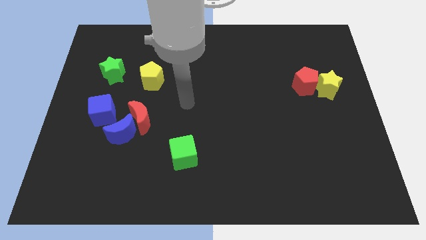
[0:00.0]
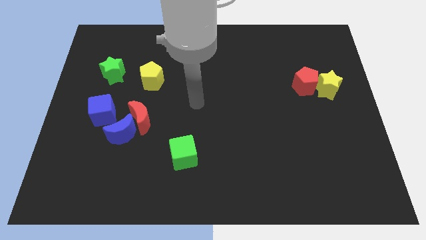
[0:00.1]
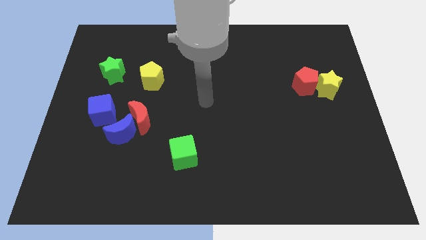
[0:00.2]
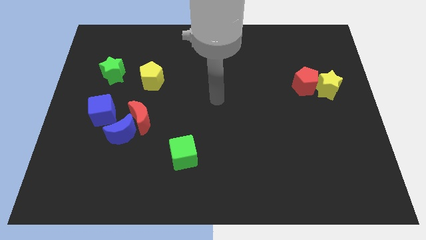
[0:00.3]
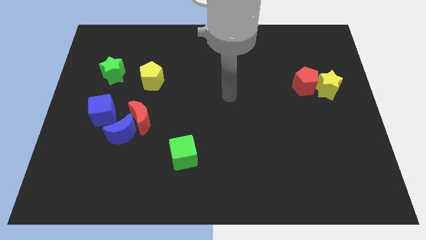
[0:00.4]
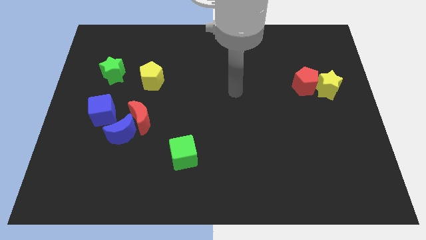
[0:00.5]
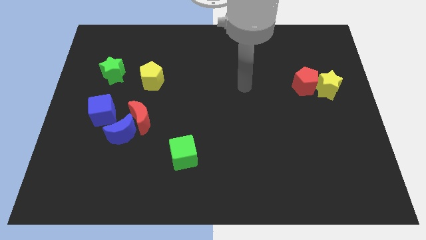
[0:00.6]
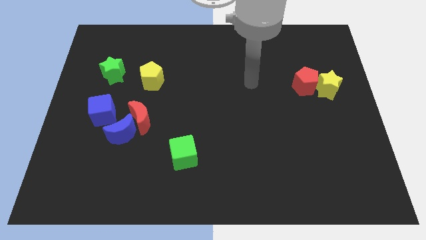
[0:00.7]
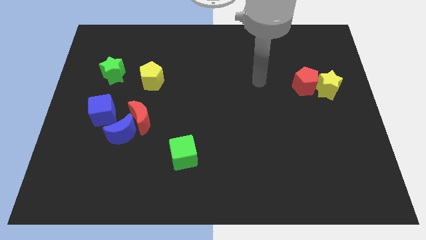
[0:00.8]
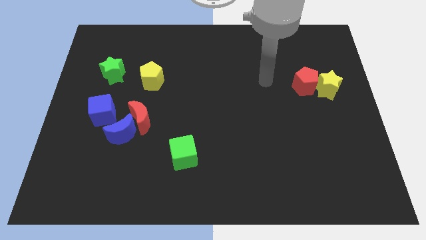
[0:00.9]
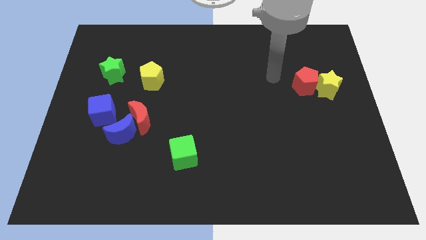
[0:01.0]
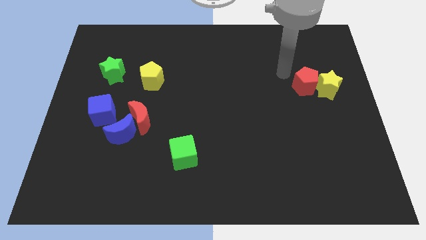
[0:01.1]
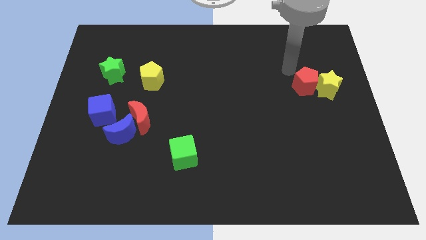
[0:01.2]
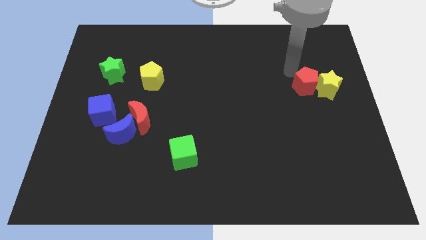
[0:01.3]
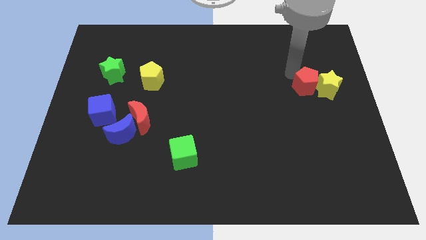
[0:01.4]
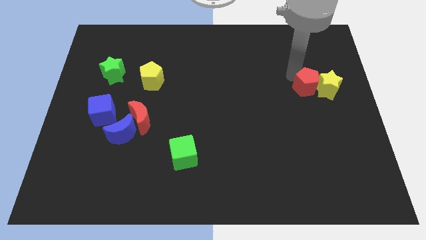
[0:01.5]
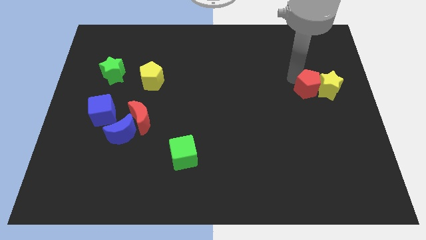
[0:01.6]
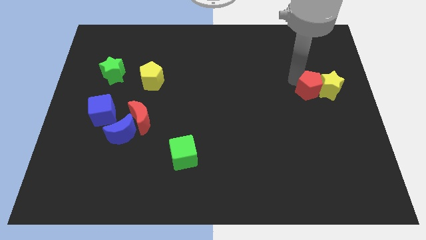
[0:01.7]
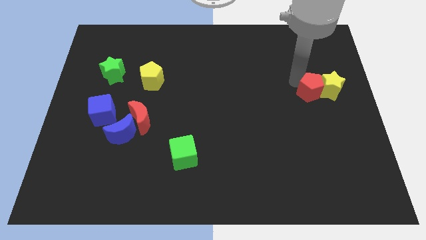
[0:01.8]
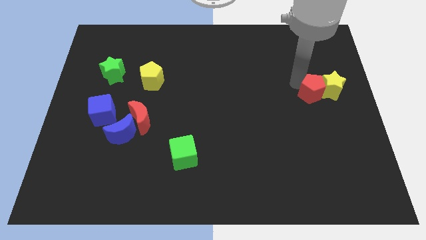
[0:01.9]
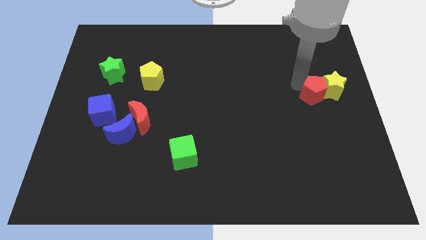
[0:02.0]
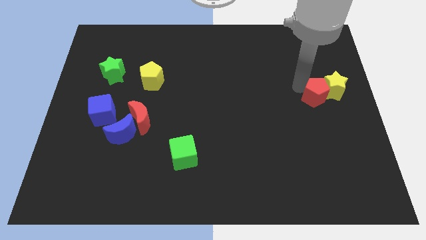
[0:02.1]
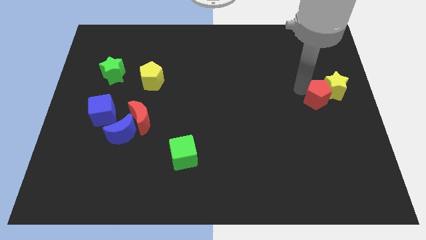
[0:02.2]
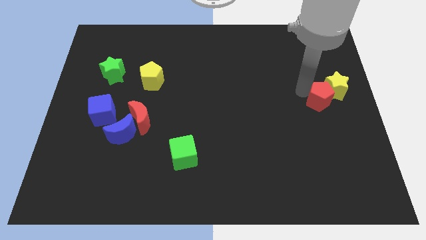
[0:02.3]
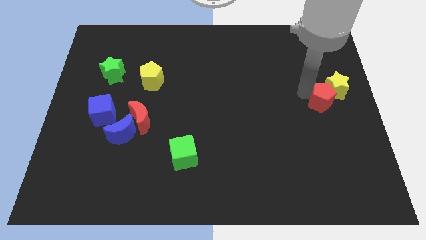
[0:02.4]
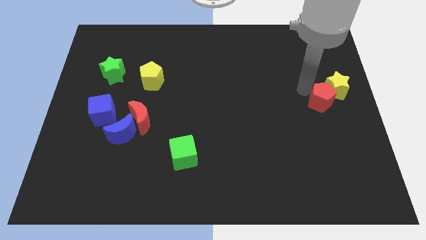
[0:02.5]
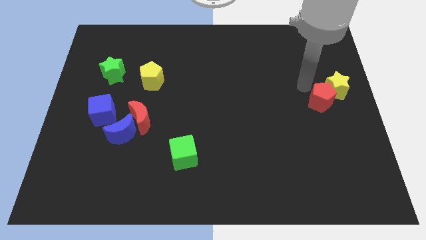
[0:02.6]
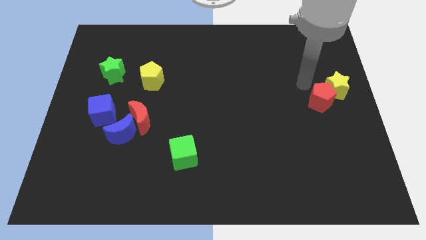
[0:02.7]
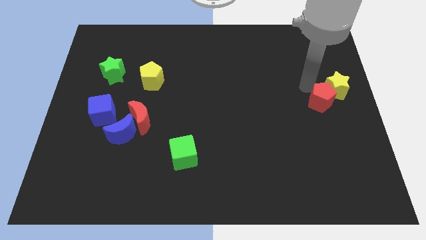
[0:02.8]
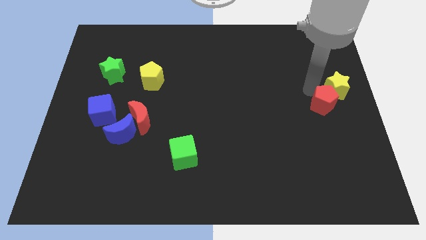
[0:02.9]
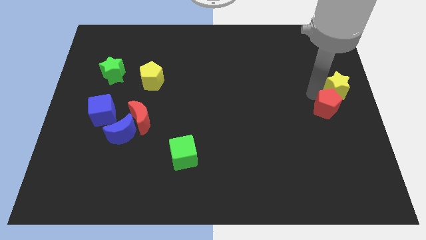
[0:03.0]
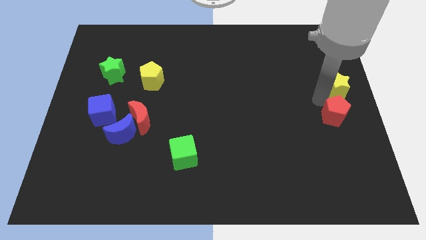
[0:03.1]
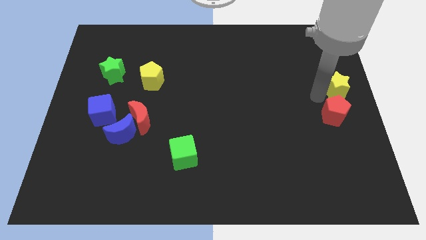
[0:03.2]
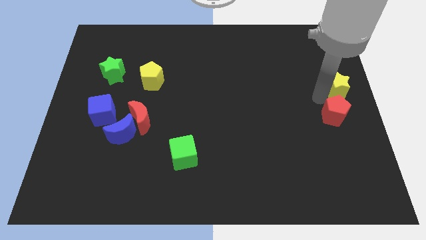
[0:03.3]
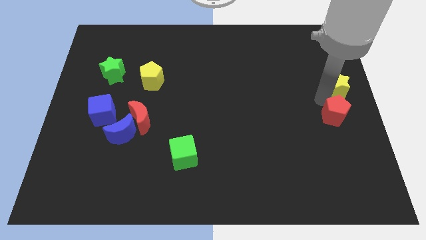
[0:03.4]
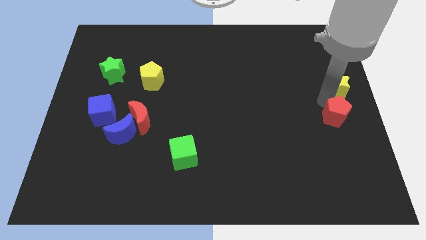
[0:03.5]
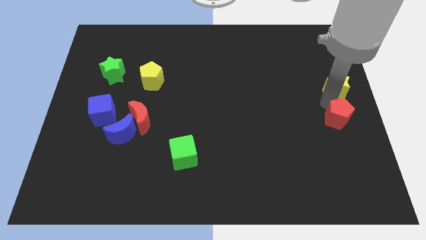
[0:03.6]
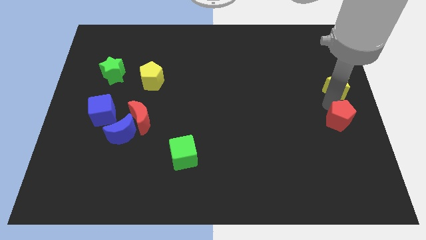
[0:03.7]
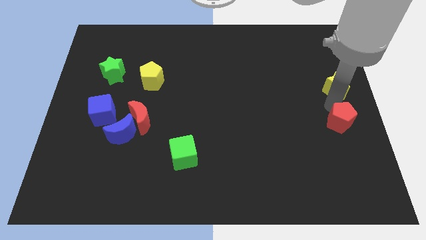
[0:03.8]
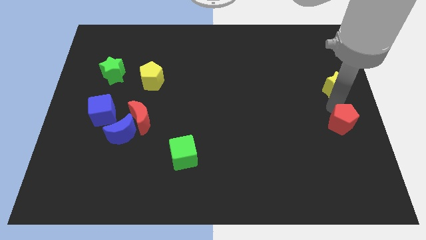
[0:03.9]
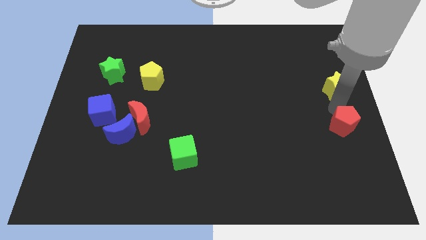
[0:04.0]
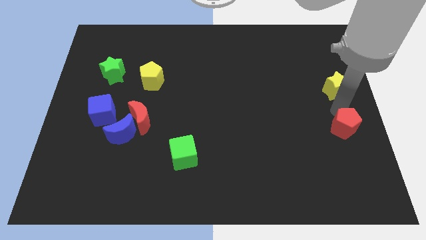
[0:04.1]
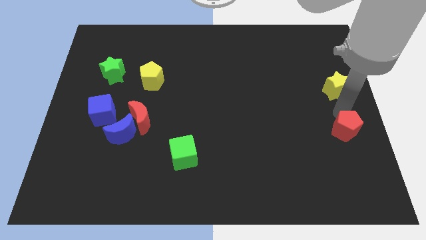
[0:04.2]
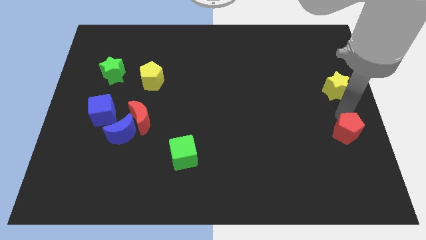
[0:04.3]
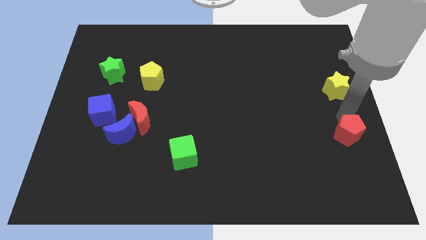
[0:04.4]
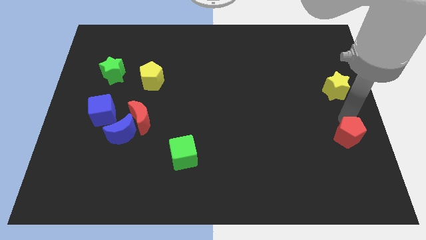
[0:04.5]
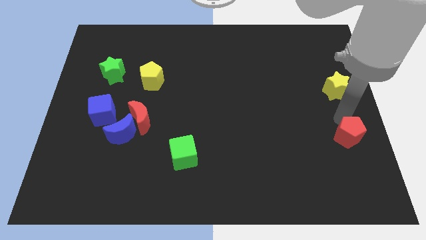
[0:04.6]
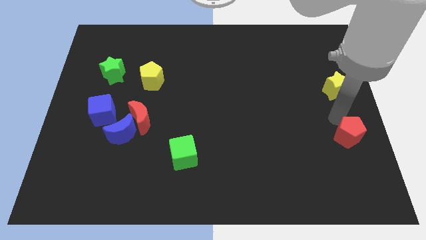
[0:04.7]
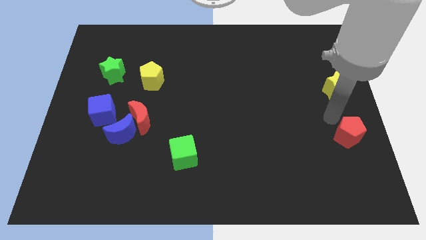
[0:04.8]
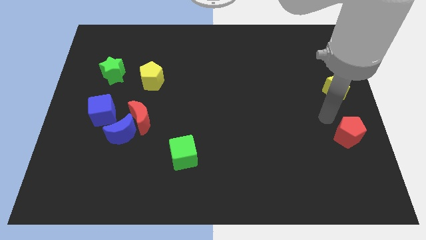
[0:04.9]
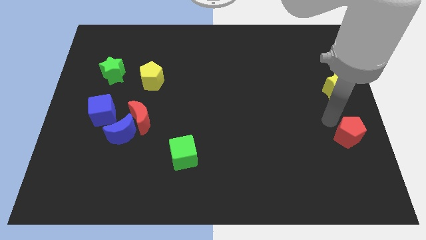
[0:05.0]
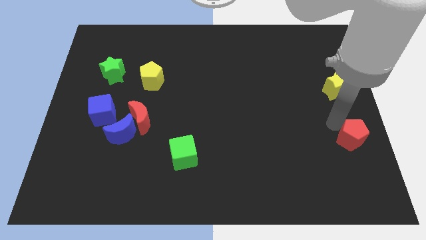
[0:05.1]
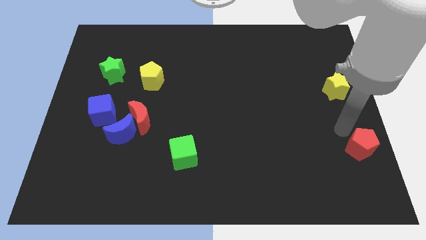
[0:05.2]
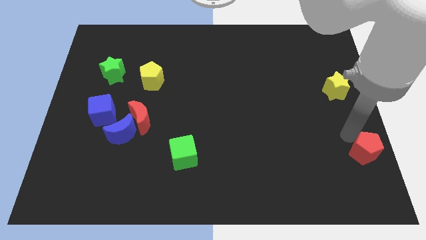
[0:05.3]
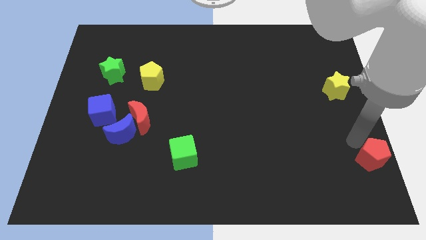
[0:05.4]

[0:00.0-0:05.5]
put the red pentagon to the lower right corner

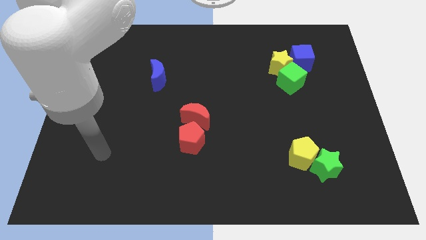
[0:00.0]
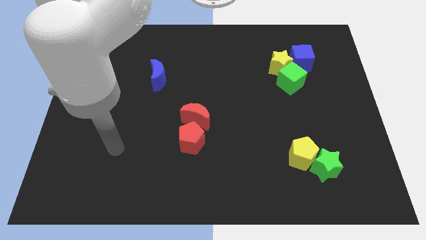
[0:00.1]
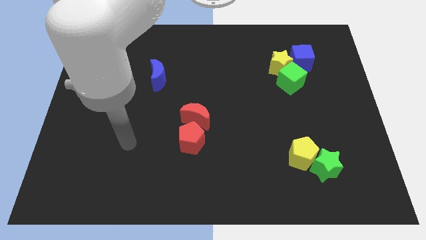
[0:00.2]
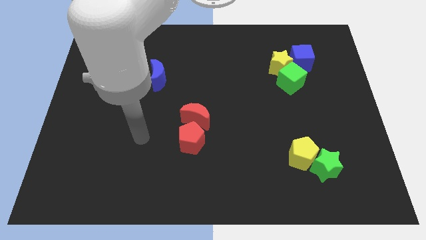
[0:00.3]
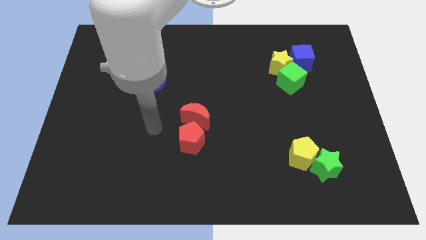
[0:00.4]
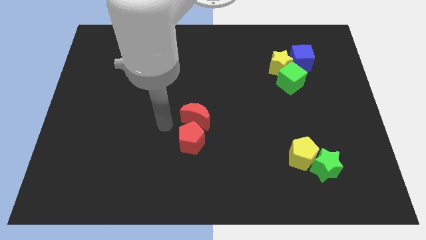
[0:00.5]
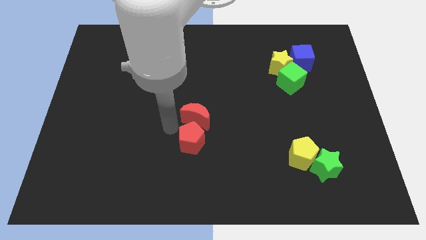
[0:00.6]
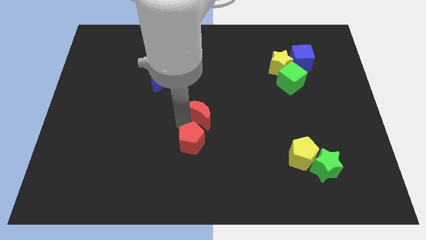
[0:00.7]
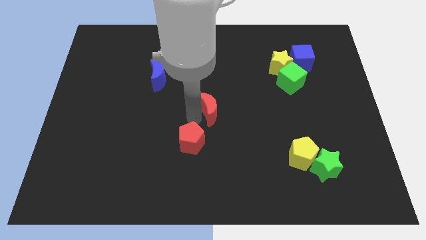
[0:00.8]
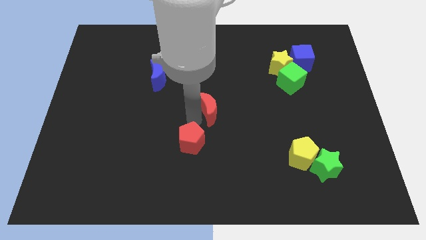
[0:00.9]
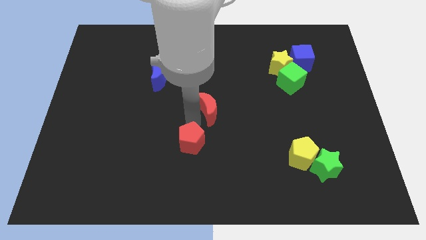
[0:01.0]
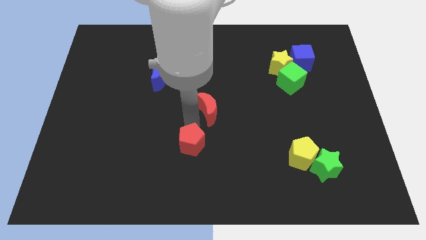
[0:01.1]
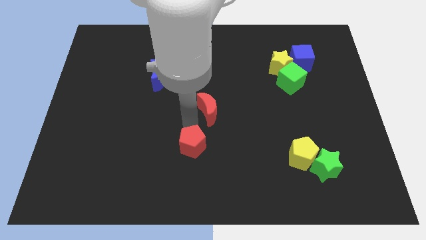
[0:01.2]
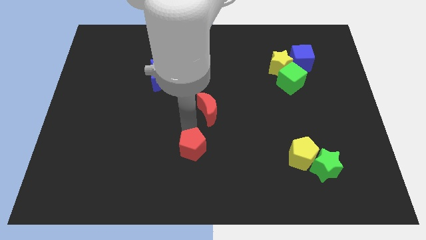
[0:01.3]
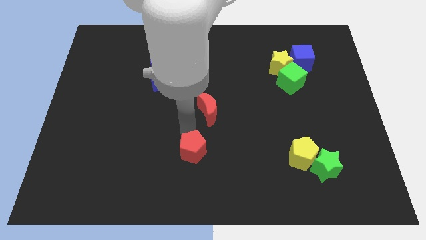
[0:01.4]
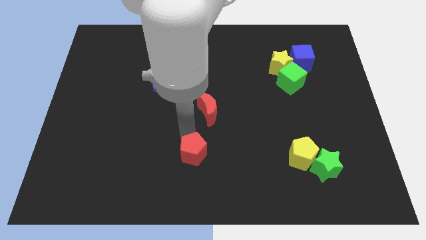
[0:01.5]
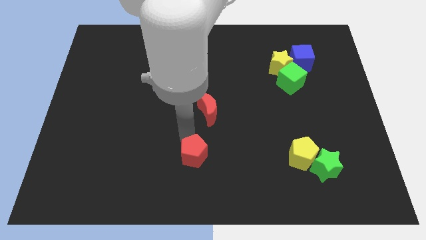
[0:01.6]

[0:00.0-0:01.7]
put the red pentagon to the bottom
